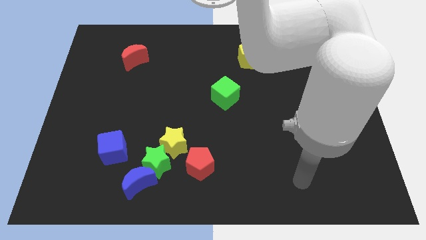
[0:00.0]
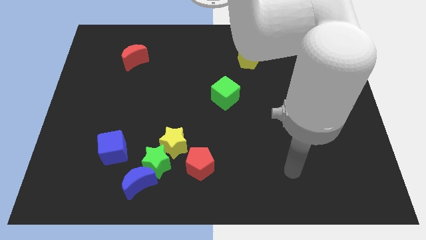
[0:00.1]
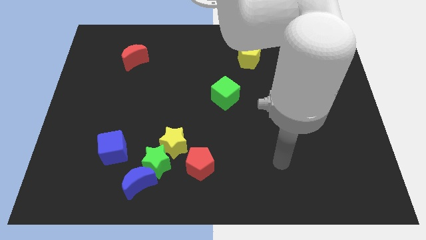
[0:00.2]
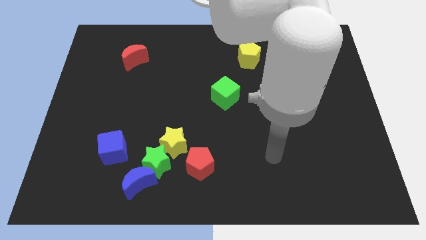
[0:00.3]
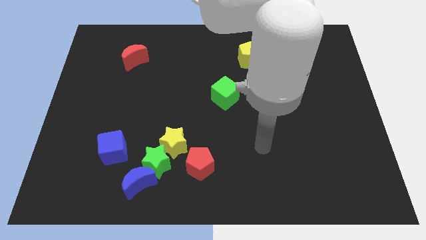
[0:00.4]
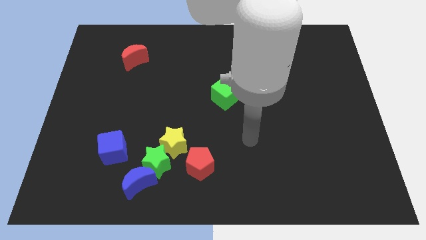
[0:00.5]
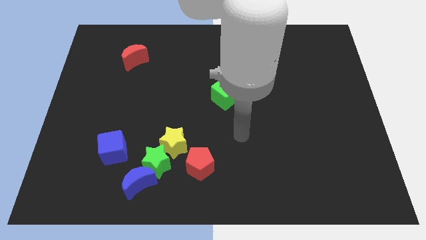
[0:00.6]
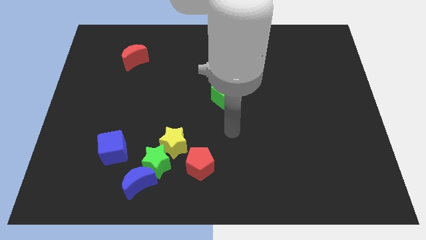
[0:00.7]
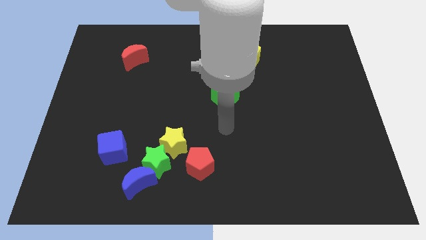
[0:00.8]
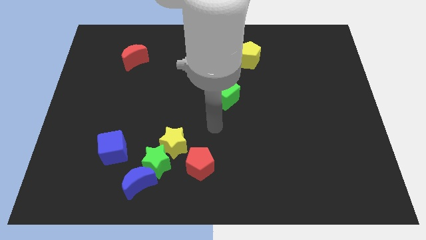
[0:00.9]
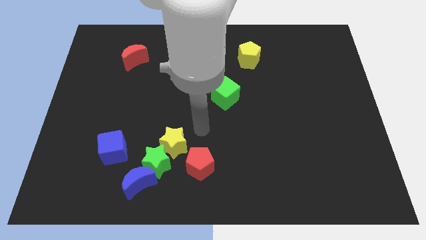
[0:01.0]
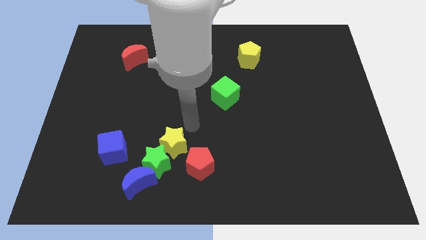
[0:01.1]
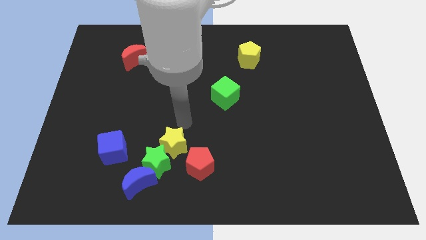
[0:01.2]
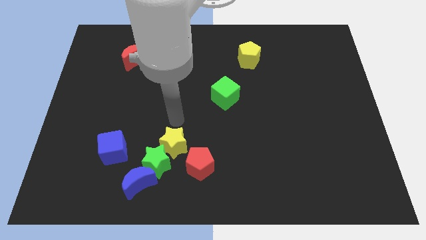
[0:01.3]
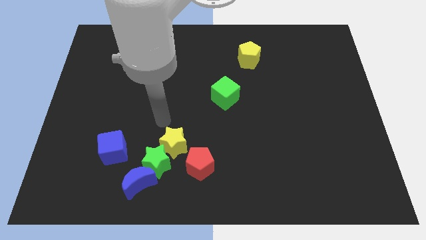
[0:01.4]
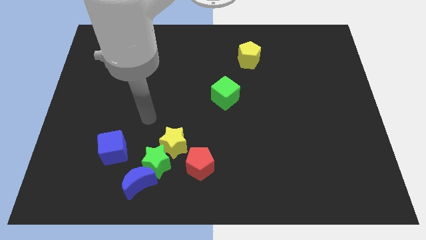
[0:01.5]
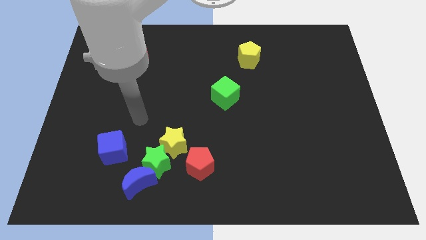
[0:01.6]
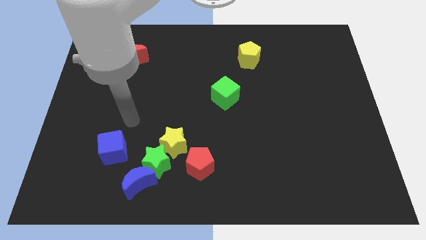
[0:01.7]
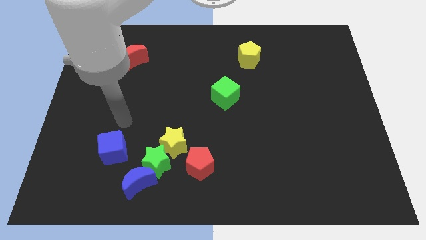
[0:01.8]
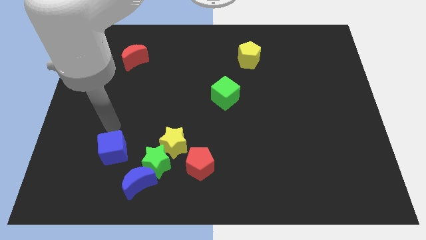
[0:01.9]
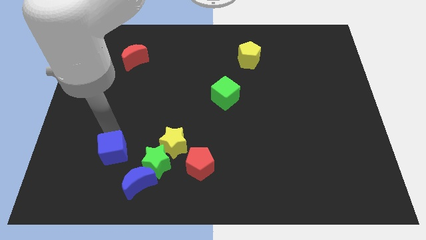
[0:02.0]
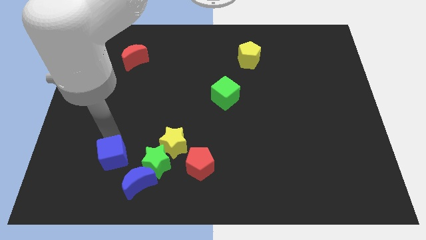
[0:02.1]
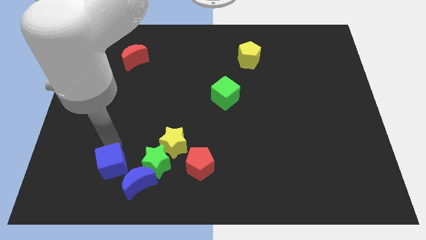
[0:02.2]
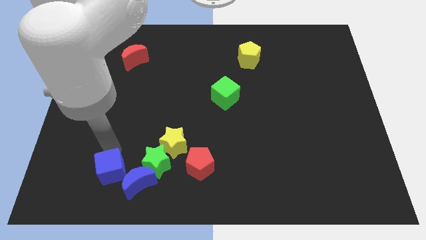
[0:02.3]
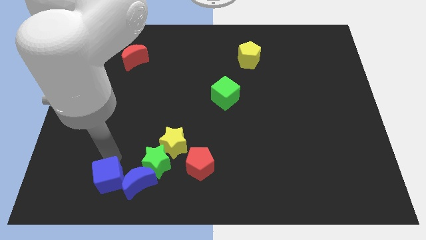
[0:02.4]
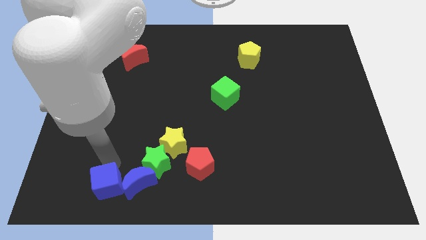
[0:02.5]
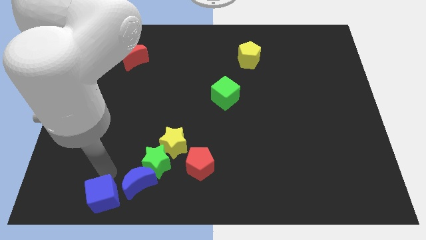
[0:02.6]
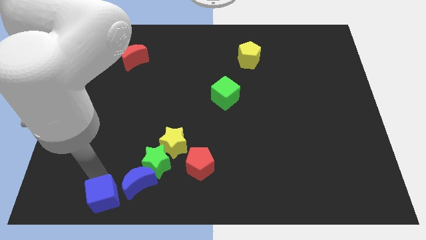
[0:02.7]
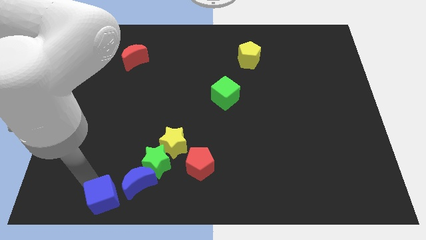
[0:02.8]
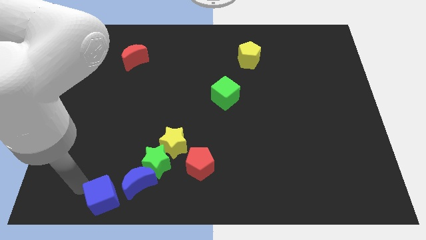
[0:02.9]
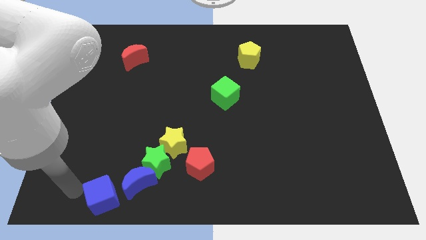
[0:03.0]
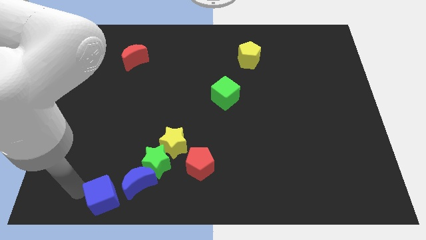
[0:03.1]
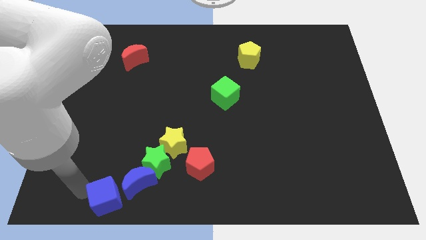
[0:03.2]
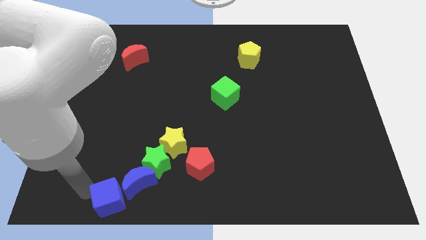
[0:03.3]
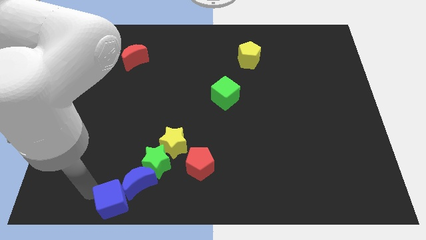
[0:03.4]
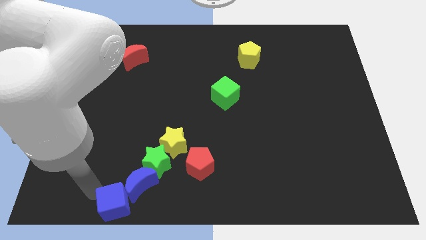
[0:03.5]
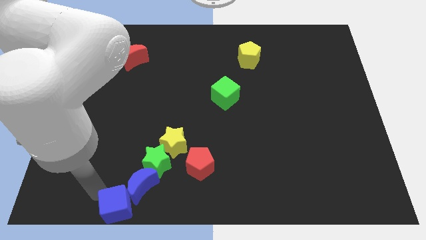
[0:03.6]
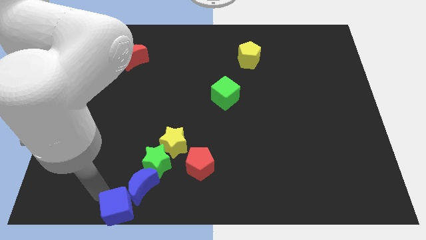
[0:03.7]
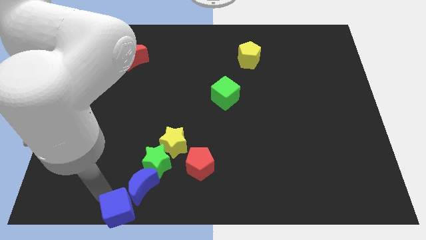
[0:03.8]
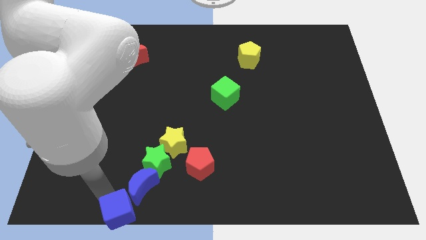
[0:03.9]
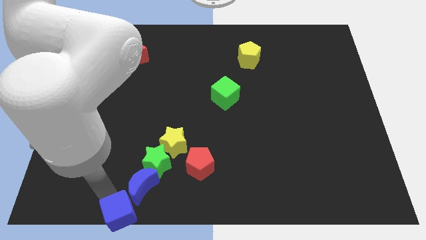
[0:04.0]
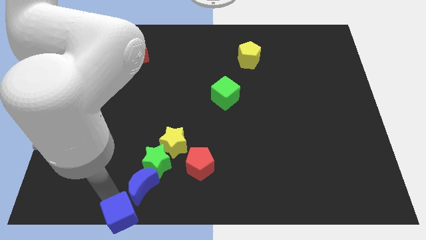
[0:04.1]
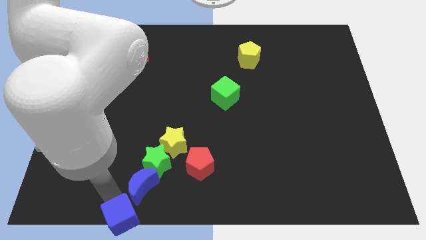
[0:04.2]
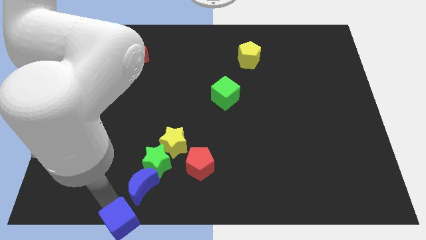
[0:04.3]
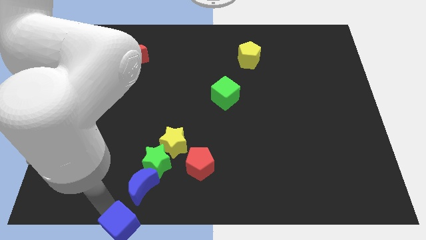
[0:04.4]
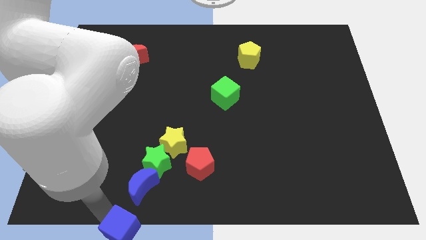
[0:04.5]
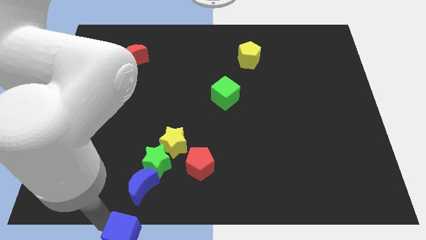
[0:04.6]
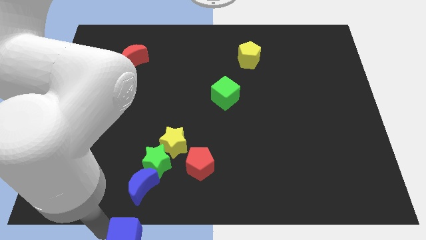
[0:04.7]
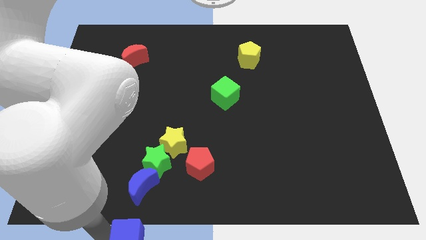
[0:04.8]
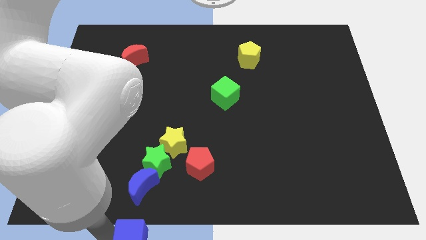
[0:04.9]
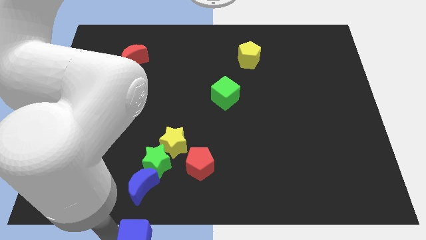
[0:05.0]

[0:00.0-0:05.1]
push the blue cube to the bottom side

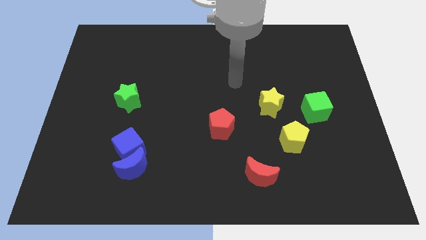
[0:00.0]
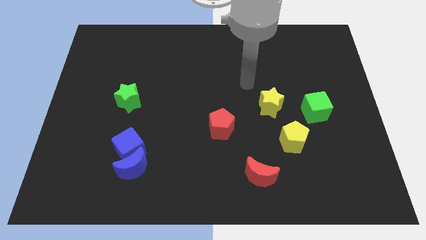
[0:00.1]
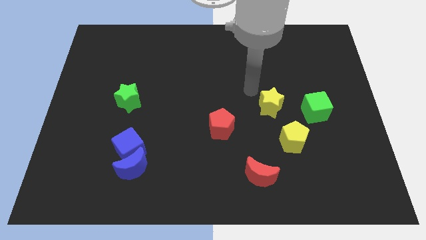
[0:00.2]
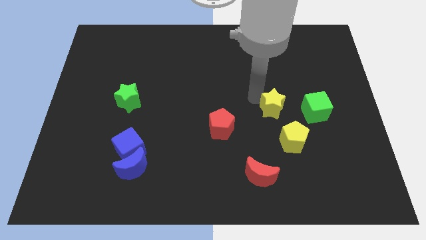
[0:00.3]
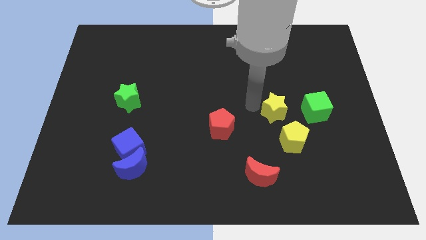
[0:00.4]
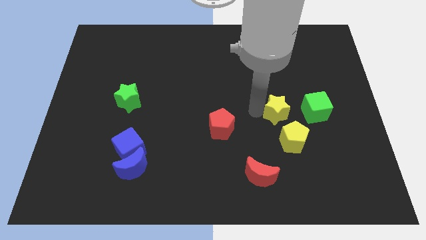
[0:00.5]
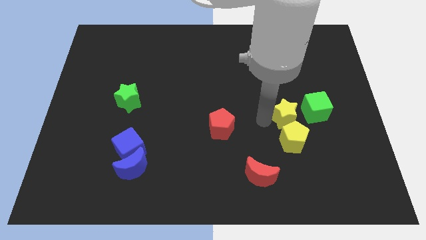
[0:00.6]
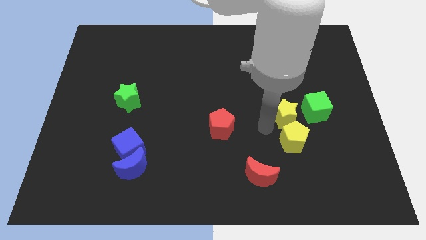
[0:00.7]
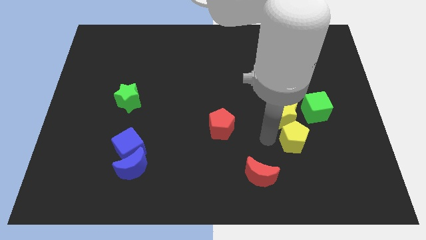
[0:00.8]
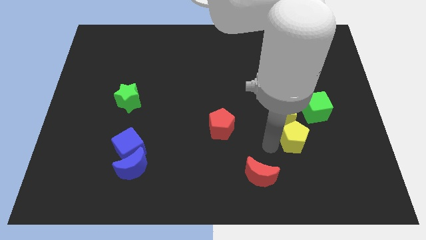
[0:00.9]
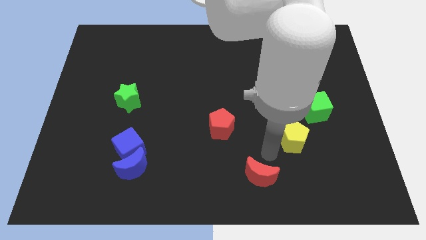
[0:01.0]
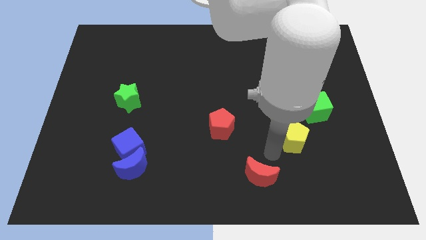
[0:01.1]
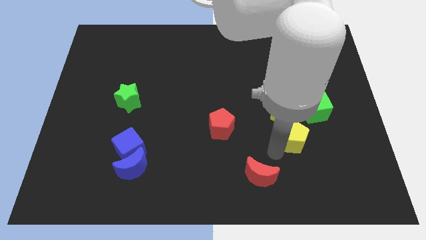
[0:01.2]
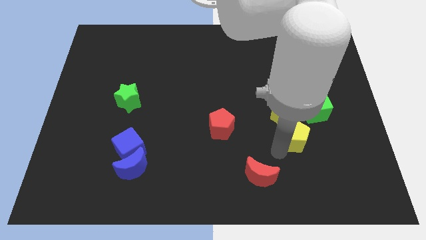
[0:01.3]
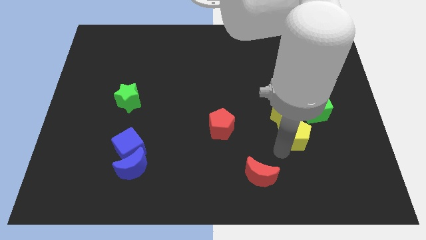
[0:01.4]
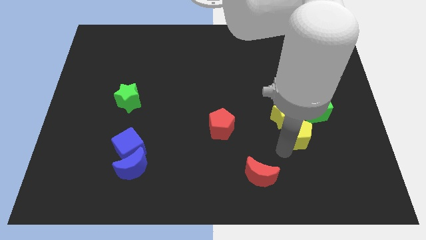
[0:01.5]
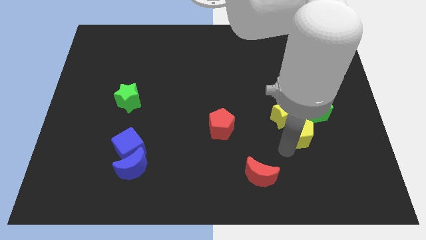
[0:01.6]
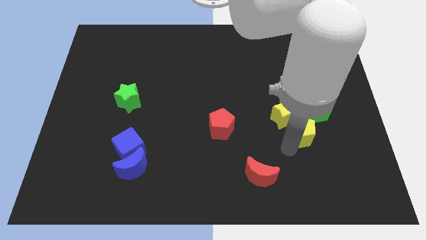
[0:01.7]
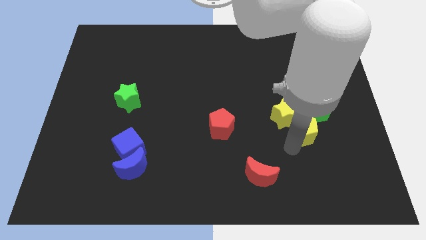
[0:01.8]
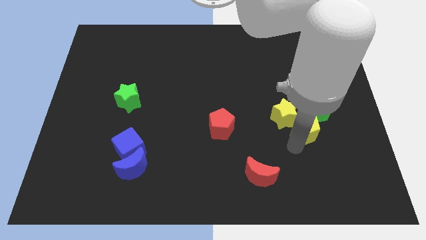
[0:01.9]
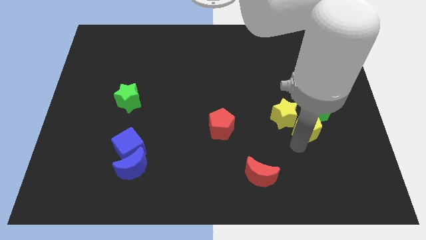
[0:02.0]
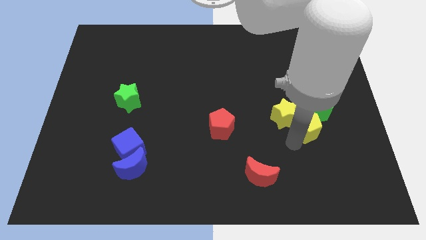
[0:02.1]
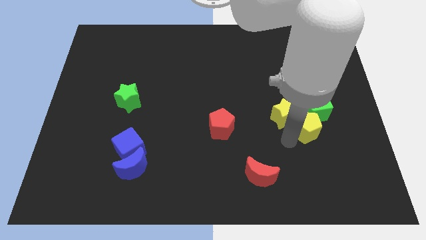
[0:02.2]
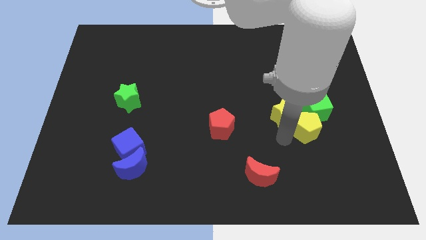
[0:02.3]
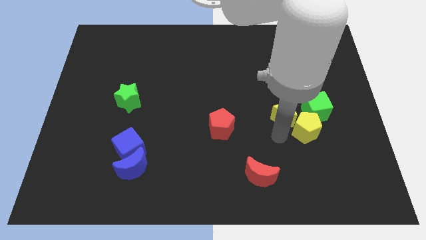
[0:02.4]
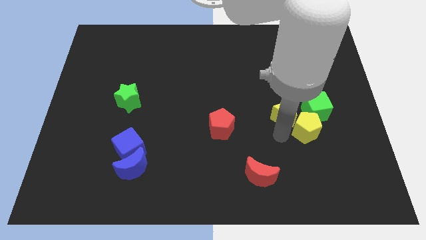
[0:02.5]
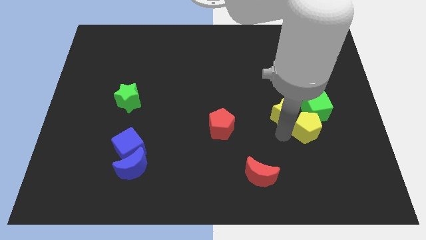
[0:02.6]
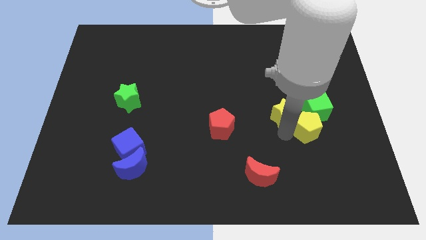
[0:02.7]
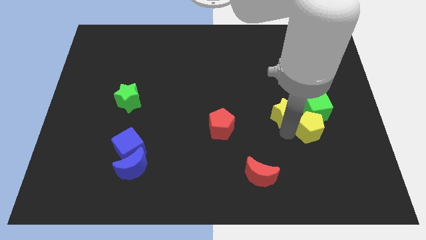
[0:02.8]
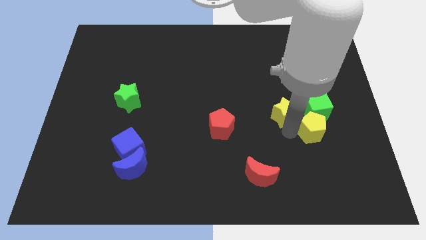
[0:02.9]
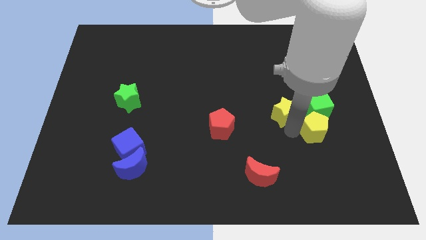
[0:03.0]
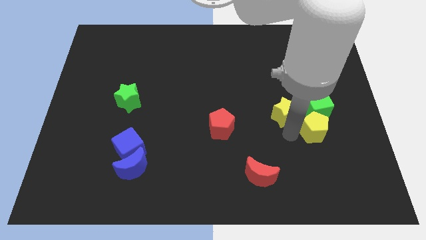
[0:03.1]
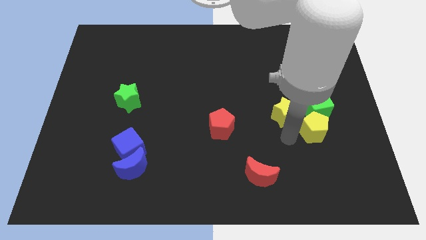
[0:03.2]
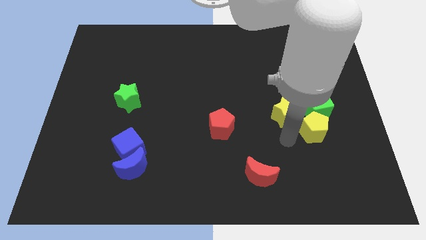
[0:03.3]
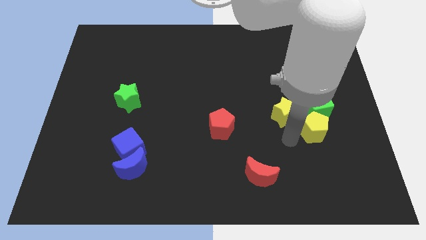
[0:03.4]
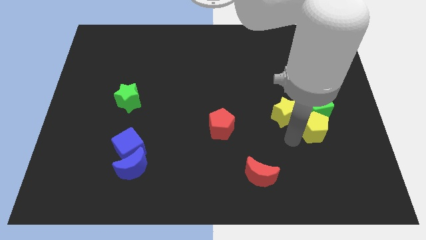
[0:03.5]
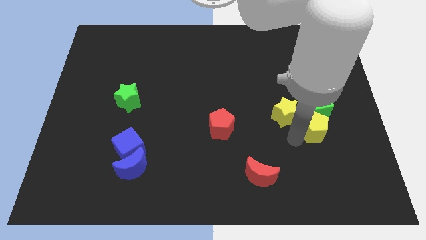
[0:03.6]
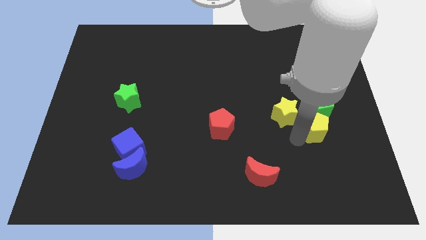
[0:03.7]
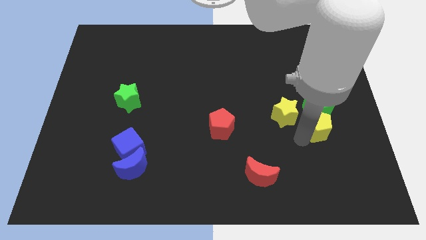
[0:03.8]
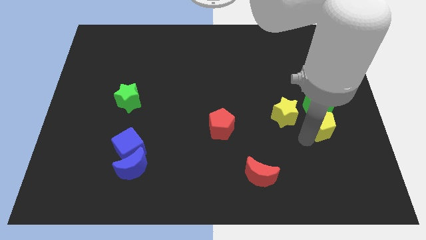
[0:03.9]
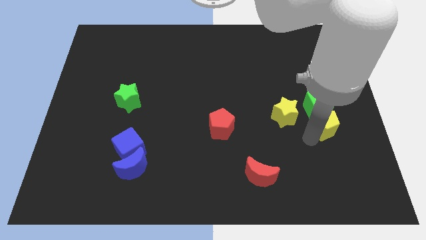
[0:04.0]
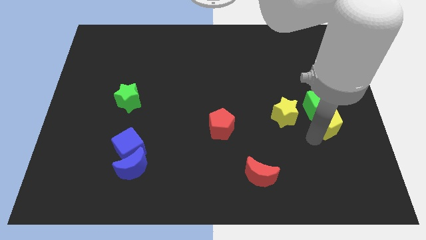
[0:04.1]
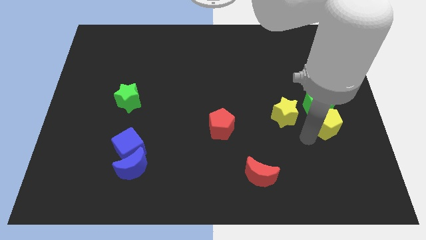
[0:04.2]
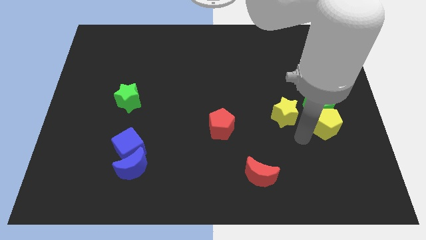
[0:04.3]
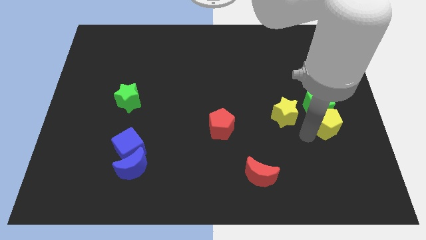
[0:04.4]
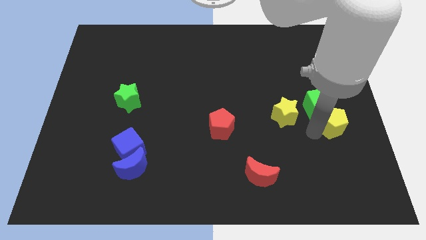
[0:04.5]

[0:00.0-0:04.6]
move the yellow pentagon to the right side
